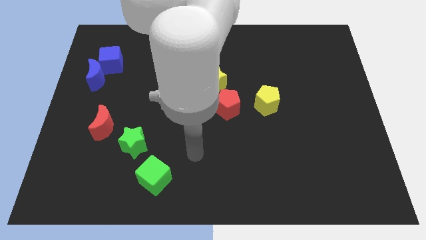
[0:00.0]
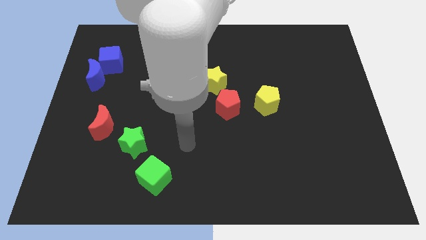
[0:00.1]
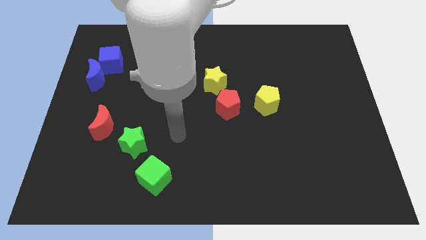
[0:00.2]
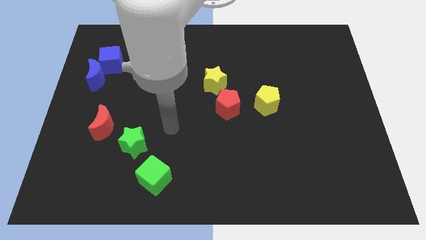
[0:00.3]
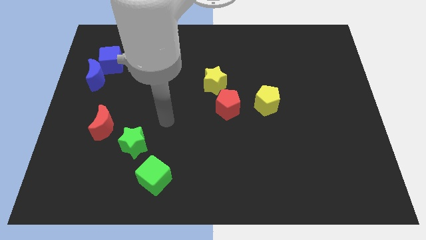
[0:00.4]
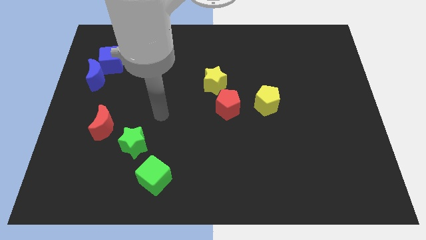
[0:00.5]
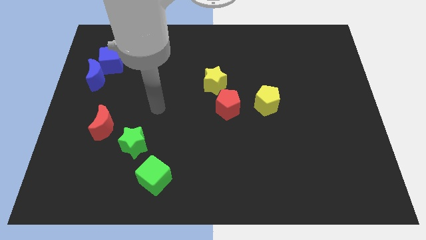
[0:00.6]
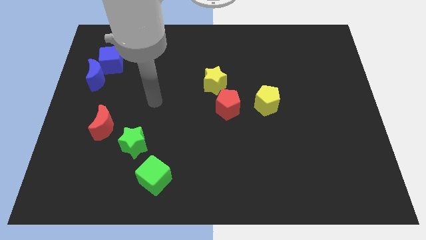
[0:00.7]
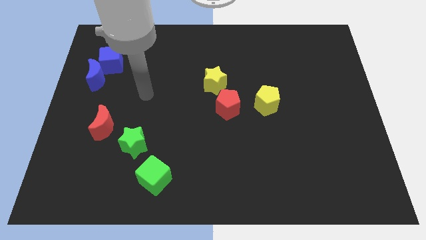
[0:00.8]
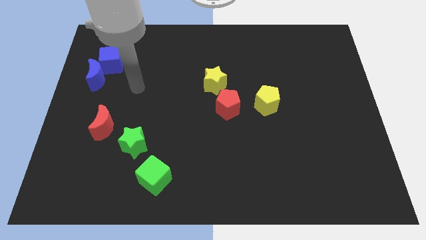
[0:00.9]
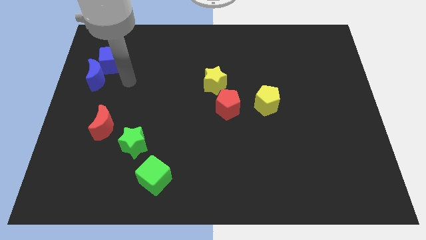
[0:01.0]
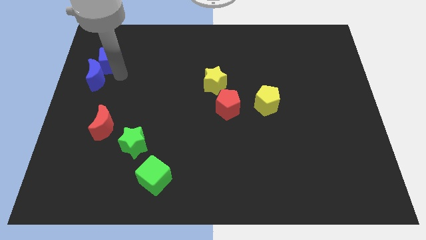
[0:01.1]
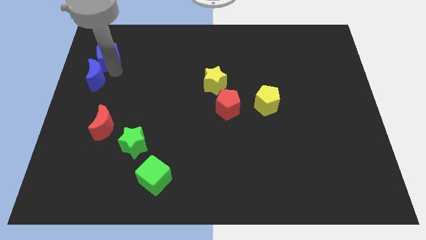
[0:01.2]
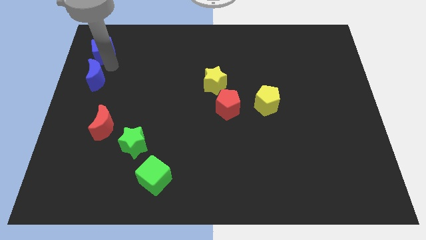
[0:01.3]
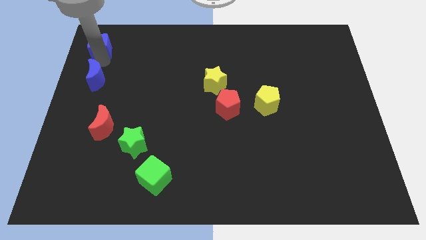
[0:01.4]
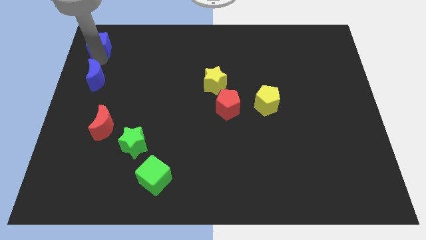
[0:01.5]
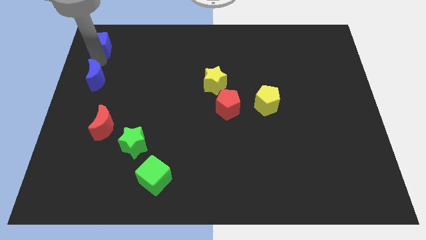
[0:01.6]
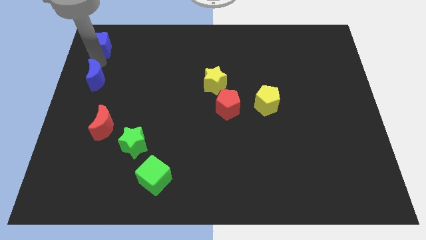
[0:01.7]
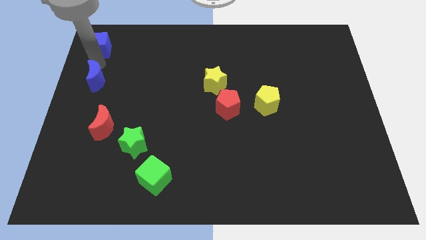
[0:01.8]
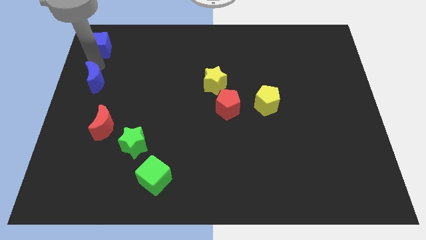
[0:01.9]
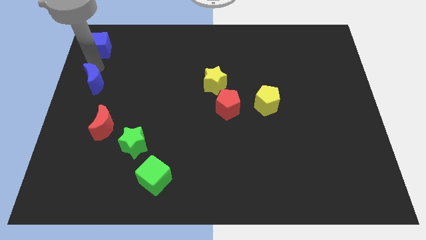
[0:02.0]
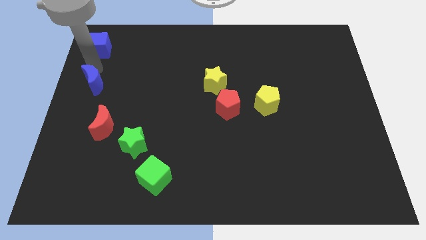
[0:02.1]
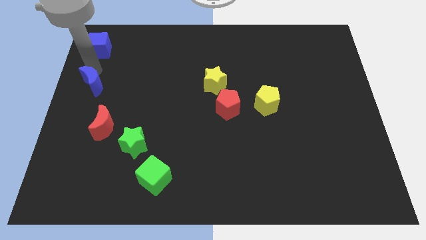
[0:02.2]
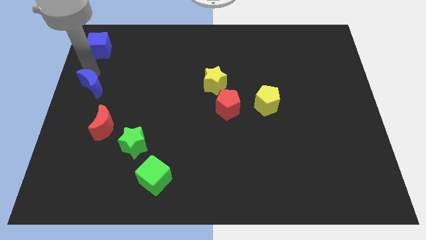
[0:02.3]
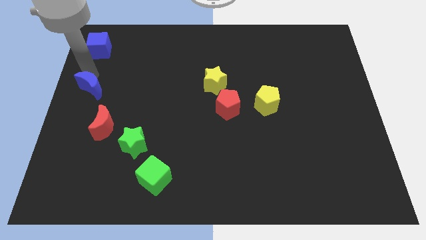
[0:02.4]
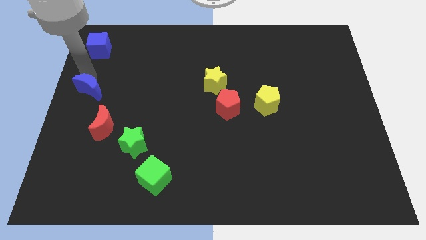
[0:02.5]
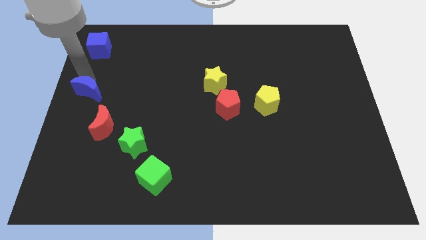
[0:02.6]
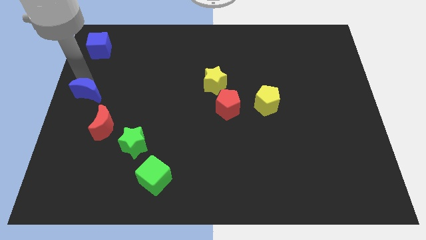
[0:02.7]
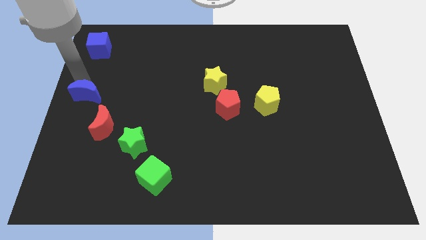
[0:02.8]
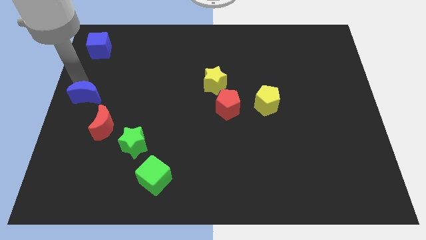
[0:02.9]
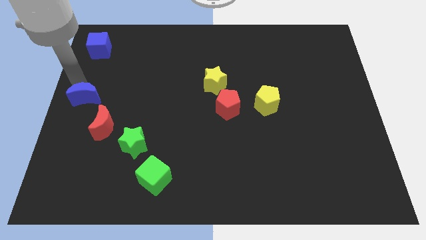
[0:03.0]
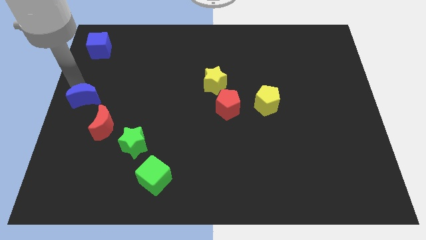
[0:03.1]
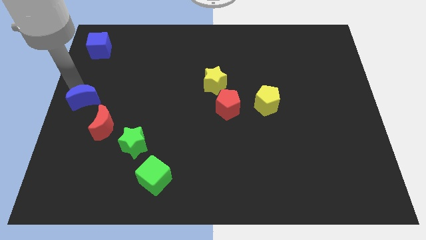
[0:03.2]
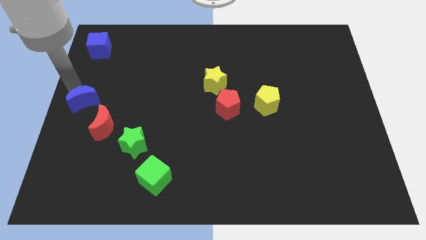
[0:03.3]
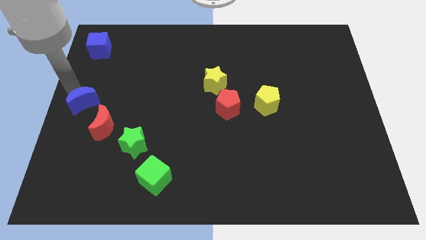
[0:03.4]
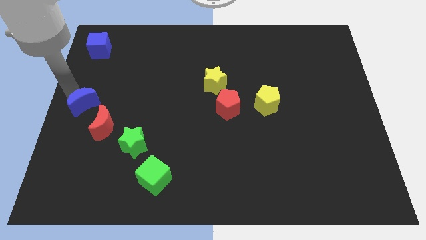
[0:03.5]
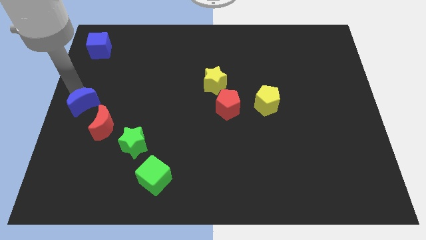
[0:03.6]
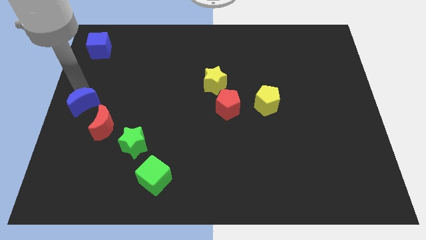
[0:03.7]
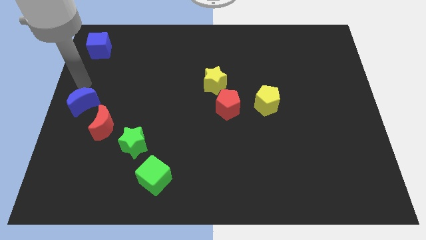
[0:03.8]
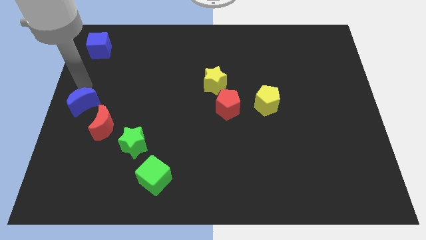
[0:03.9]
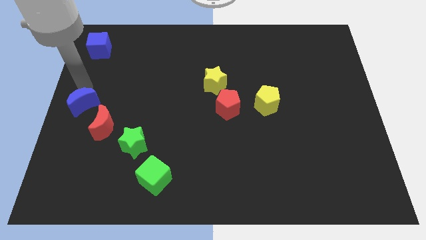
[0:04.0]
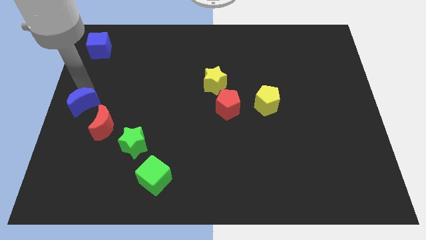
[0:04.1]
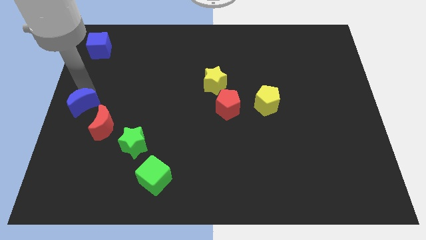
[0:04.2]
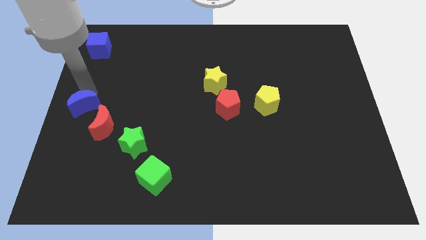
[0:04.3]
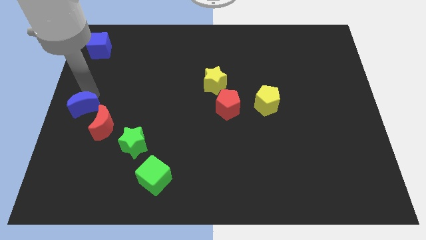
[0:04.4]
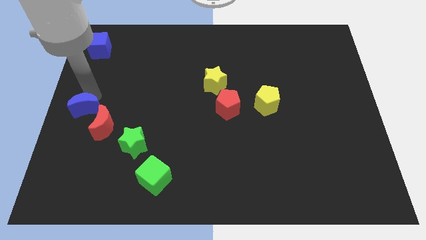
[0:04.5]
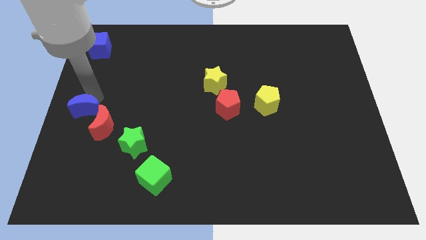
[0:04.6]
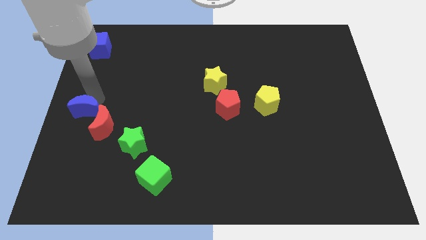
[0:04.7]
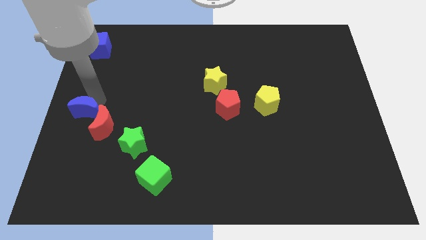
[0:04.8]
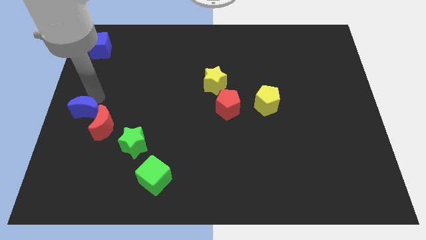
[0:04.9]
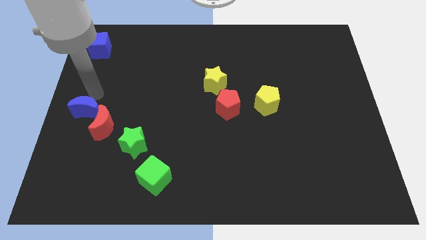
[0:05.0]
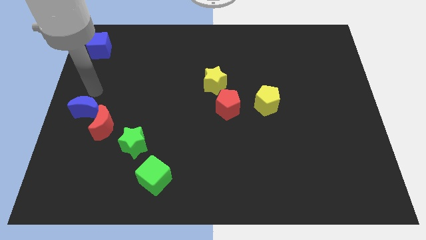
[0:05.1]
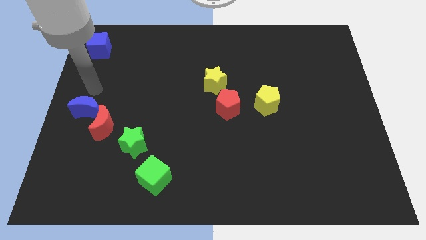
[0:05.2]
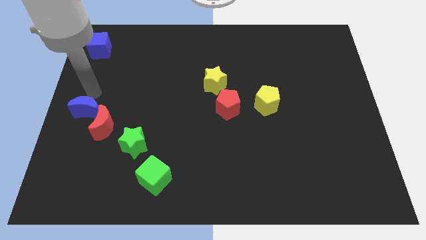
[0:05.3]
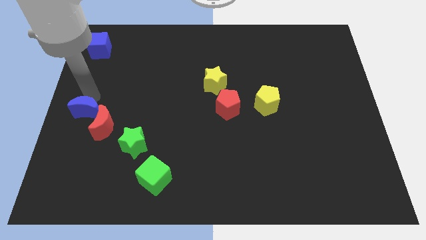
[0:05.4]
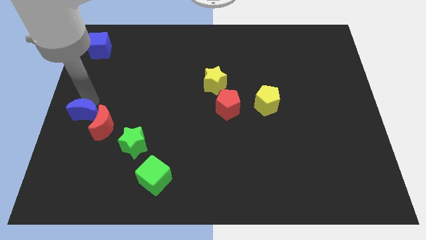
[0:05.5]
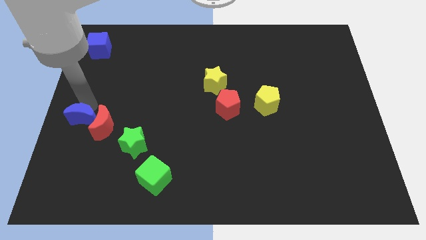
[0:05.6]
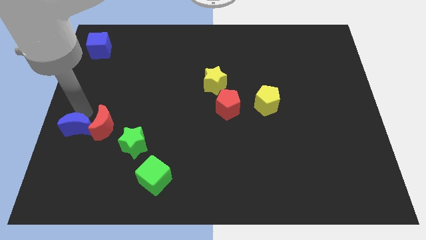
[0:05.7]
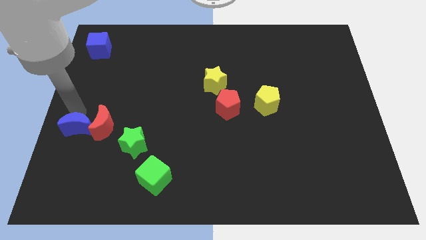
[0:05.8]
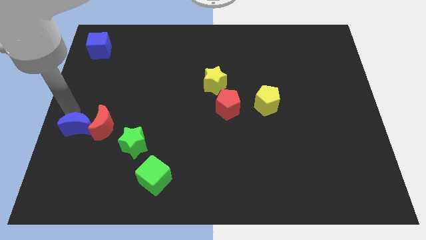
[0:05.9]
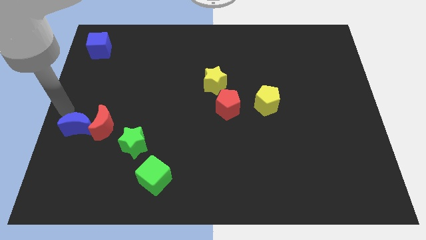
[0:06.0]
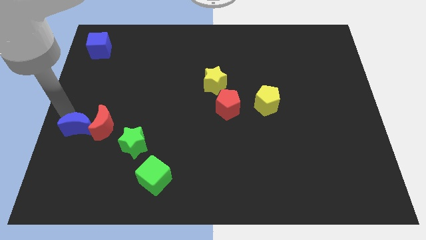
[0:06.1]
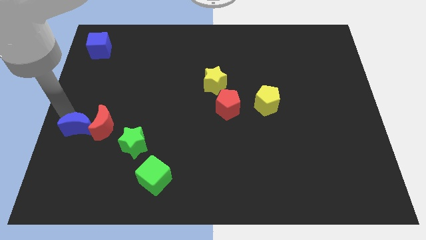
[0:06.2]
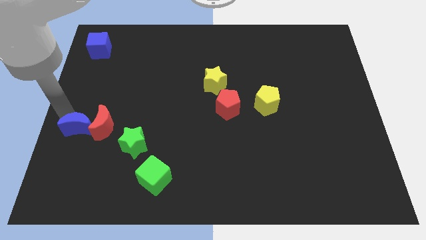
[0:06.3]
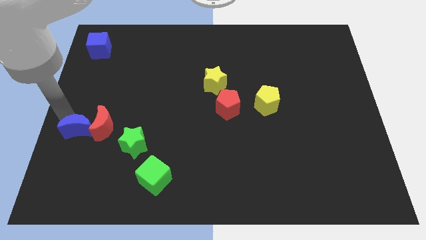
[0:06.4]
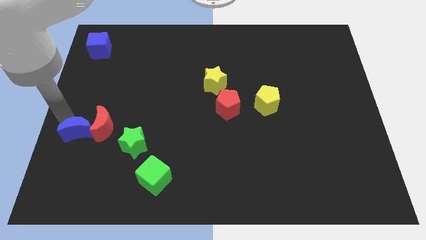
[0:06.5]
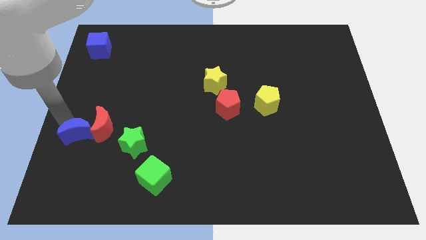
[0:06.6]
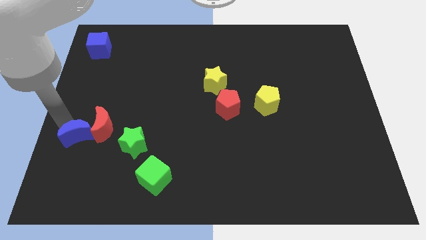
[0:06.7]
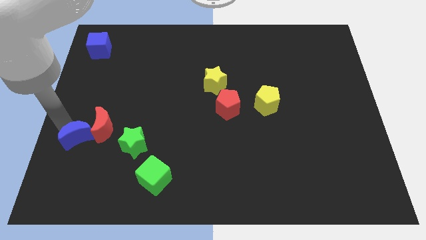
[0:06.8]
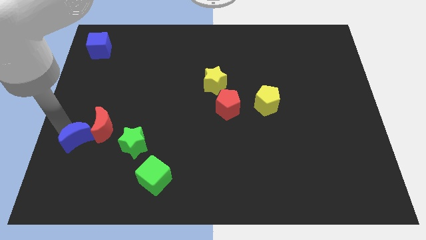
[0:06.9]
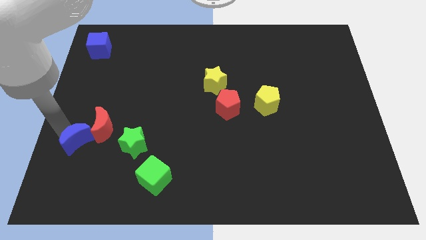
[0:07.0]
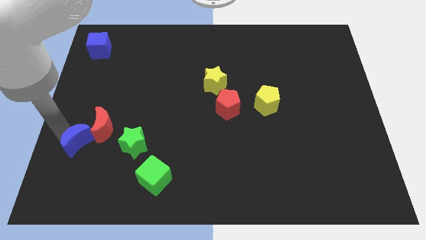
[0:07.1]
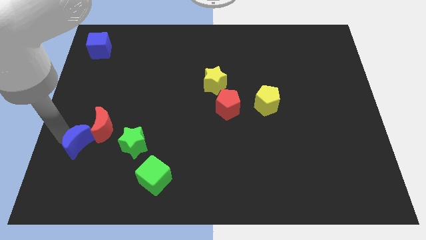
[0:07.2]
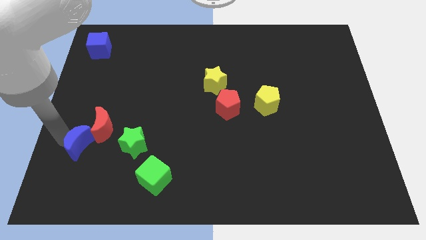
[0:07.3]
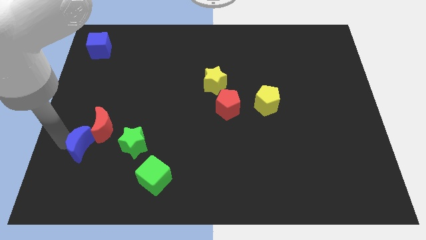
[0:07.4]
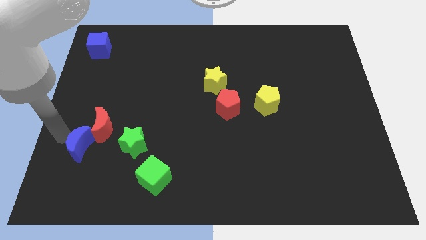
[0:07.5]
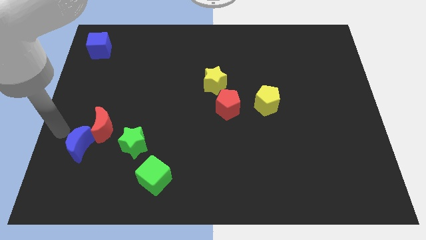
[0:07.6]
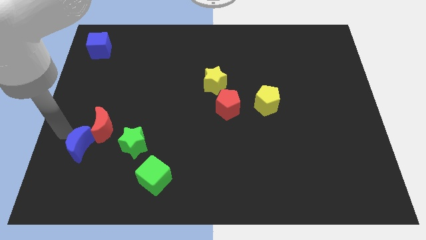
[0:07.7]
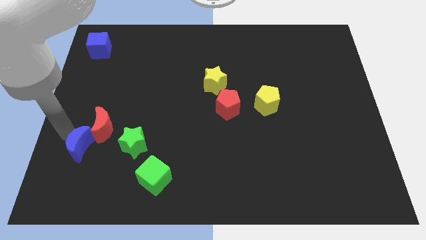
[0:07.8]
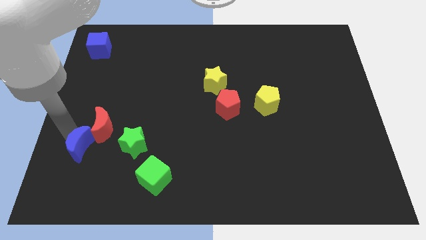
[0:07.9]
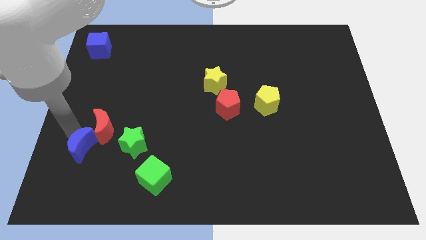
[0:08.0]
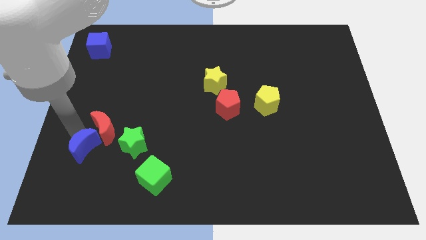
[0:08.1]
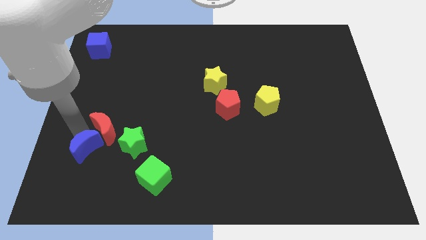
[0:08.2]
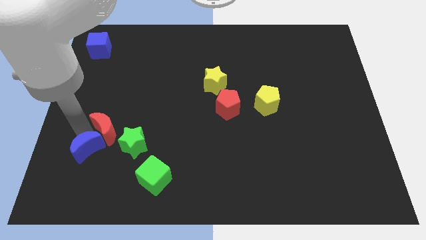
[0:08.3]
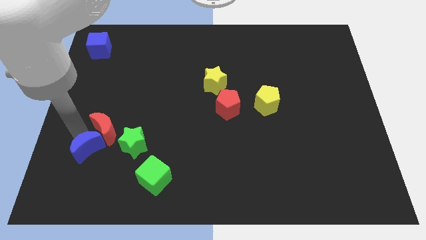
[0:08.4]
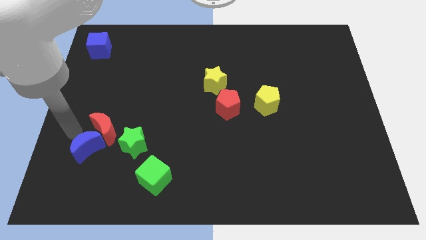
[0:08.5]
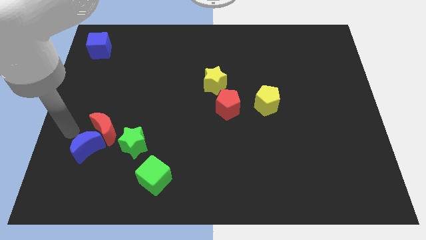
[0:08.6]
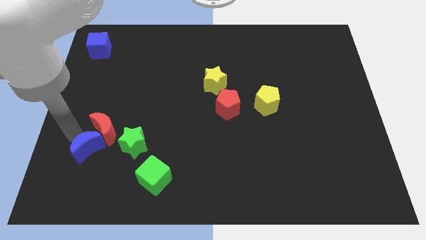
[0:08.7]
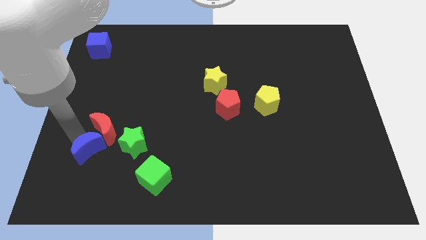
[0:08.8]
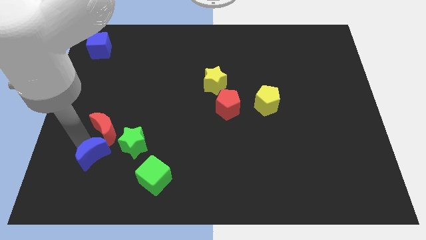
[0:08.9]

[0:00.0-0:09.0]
move the blue moon to the bottom left side of the green star
